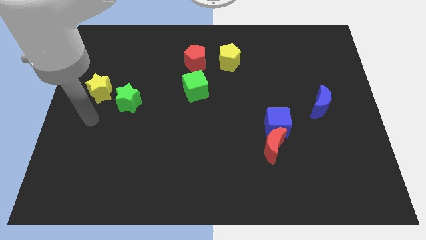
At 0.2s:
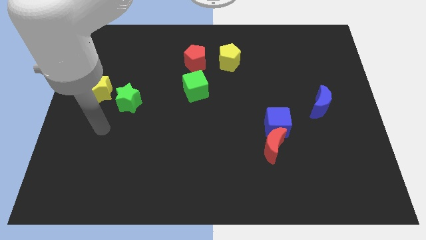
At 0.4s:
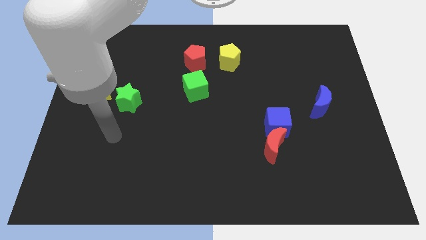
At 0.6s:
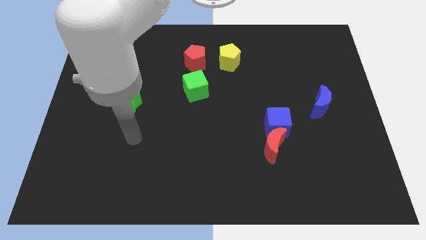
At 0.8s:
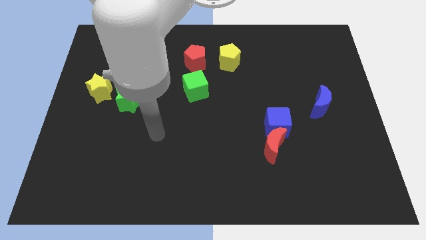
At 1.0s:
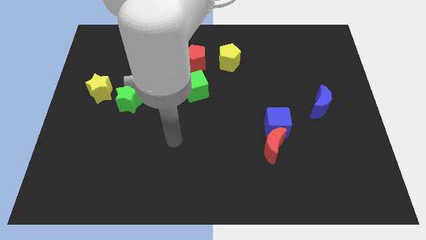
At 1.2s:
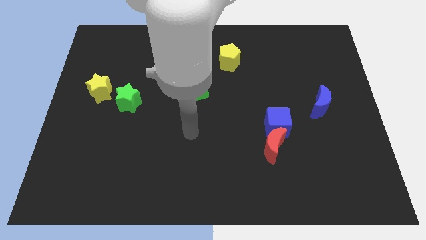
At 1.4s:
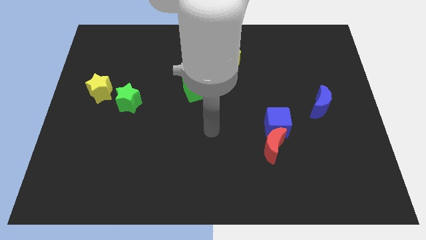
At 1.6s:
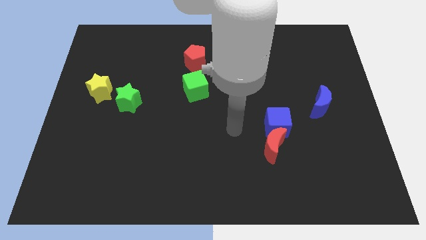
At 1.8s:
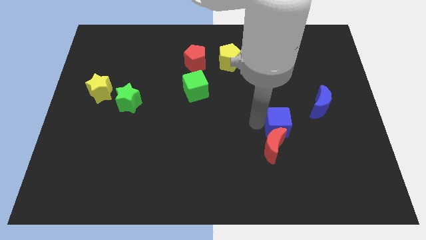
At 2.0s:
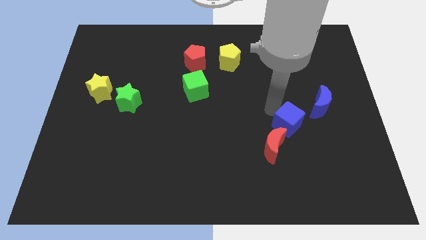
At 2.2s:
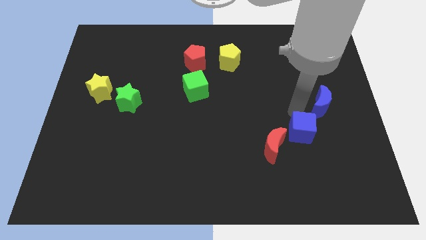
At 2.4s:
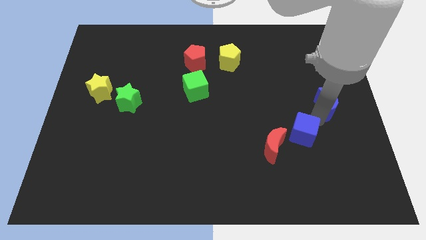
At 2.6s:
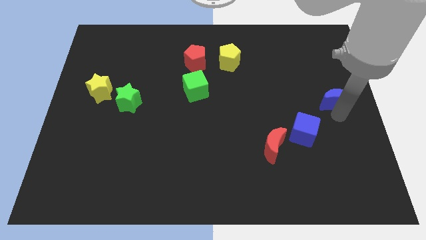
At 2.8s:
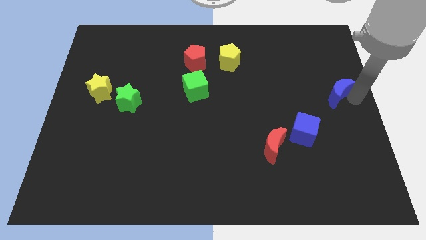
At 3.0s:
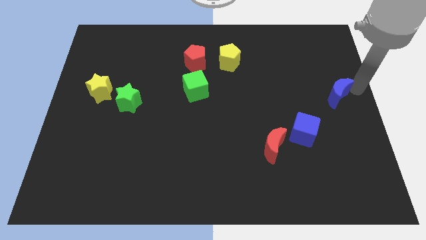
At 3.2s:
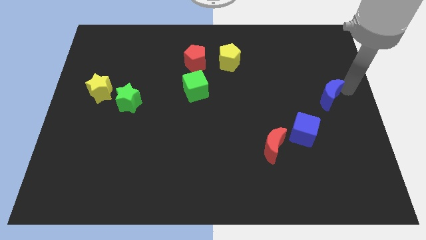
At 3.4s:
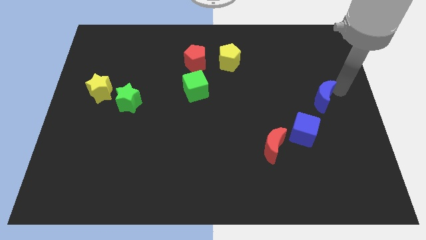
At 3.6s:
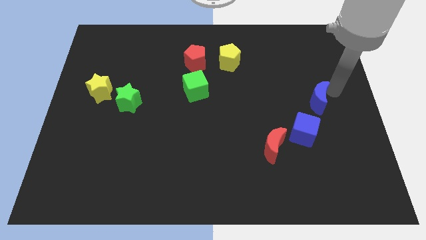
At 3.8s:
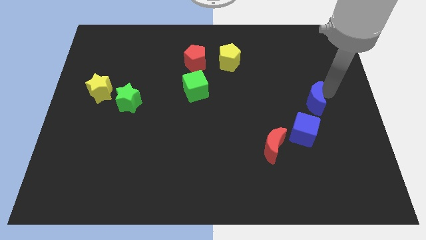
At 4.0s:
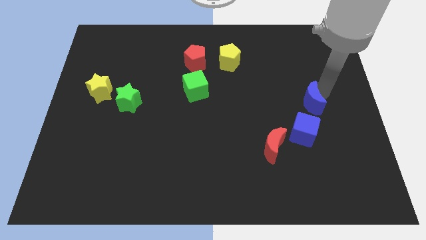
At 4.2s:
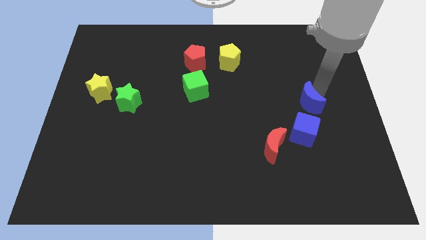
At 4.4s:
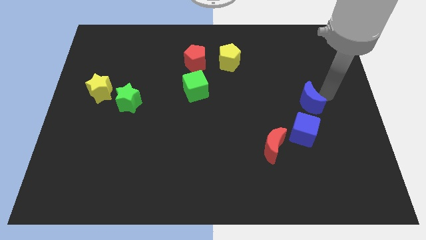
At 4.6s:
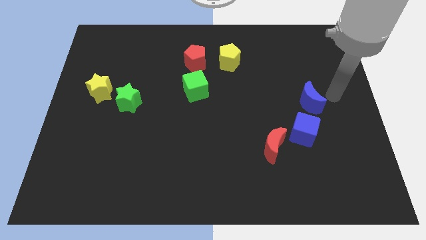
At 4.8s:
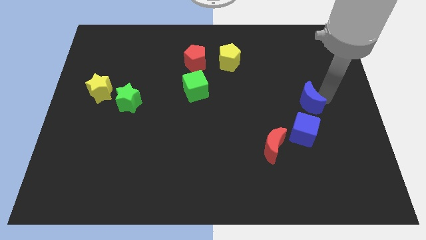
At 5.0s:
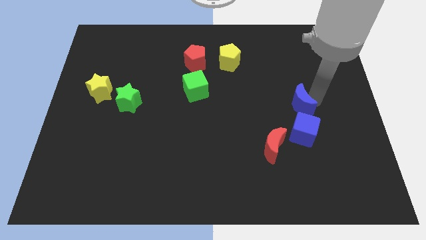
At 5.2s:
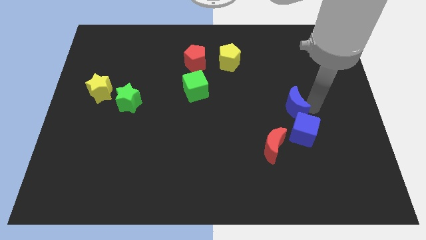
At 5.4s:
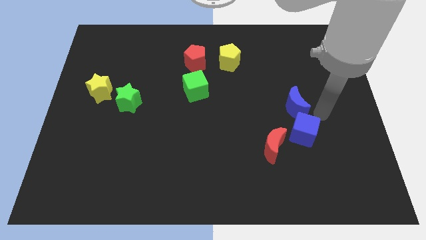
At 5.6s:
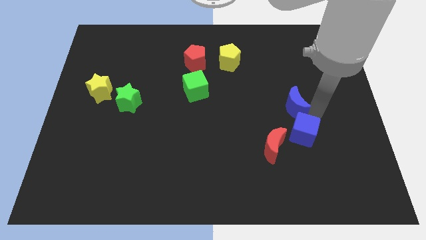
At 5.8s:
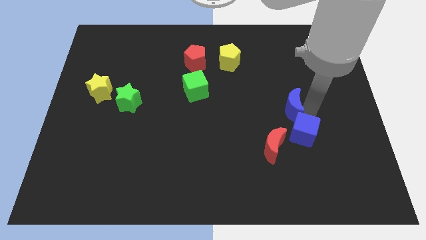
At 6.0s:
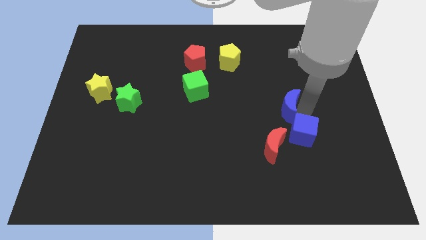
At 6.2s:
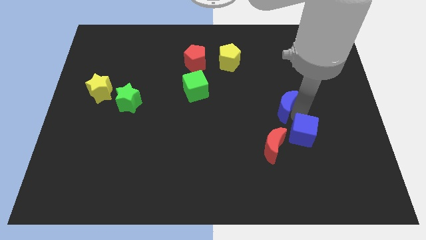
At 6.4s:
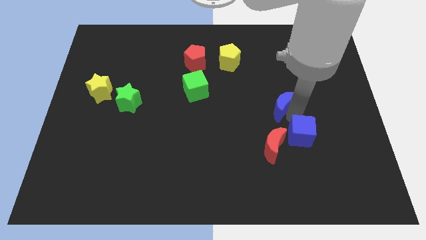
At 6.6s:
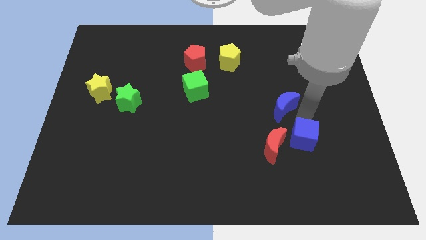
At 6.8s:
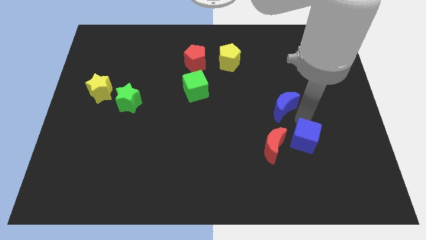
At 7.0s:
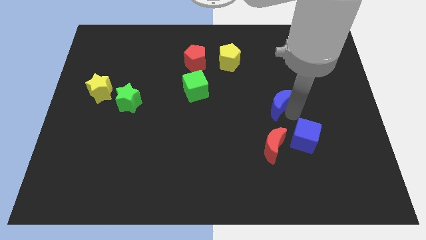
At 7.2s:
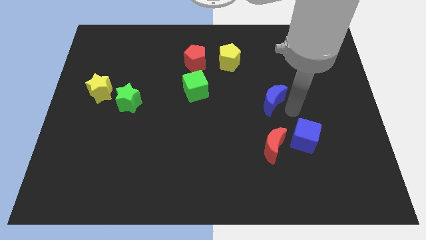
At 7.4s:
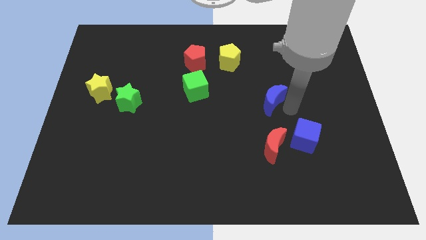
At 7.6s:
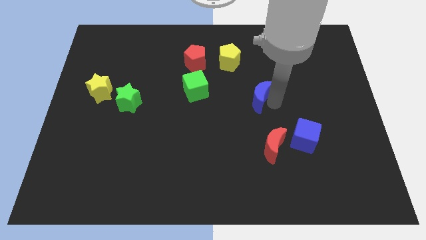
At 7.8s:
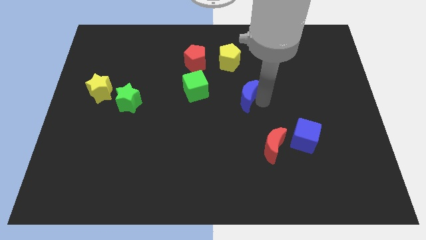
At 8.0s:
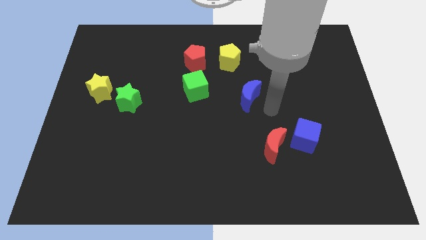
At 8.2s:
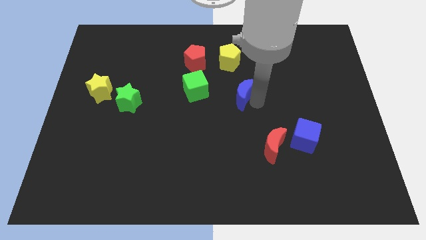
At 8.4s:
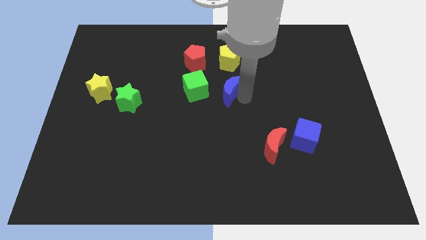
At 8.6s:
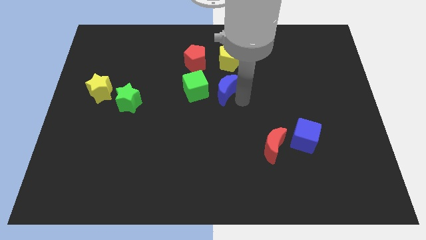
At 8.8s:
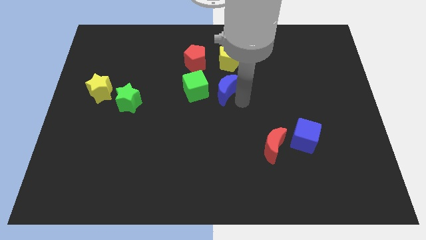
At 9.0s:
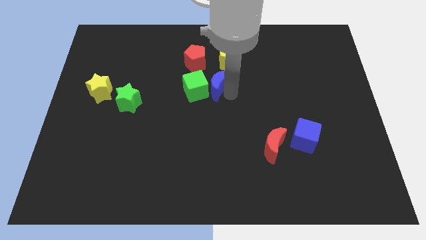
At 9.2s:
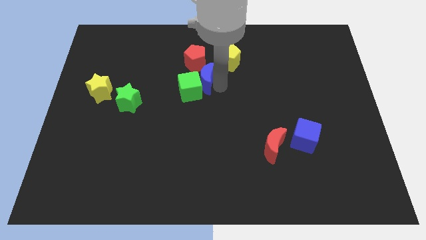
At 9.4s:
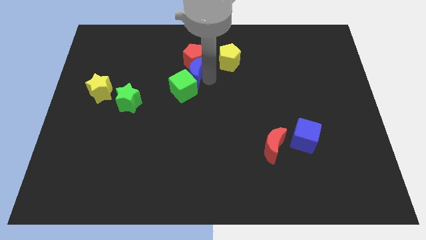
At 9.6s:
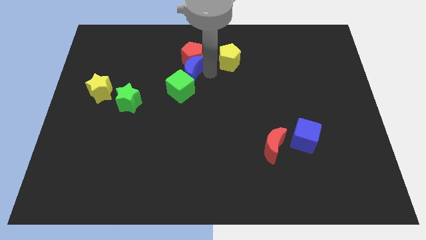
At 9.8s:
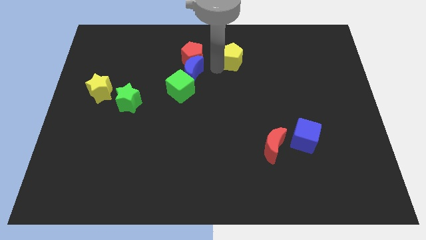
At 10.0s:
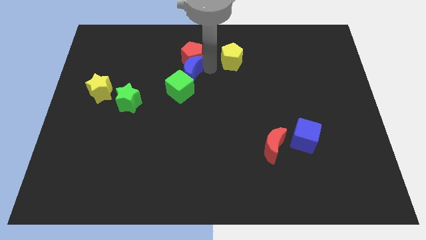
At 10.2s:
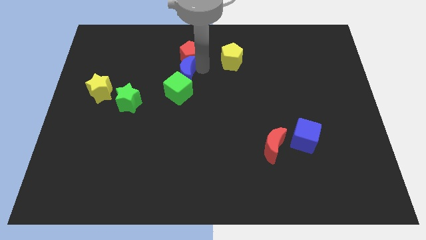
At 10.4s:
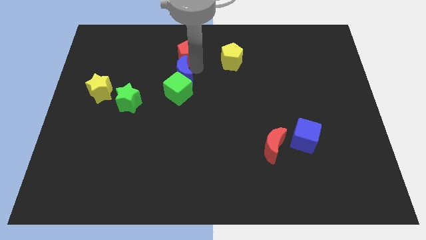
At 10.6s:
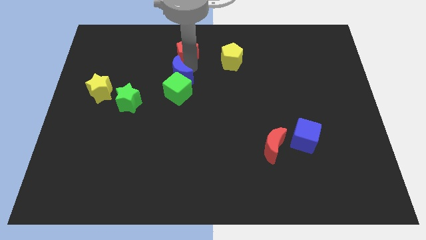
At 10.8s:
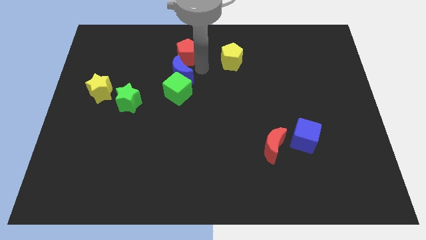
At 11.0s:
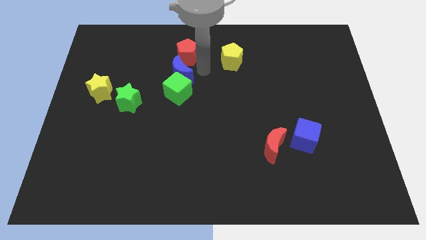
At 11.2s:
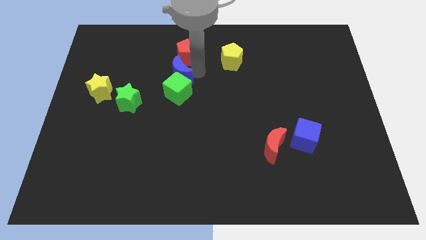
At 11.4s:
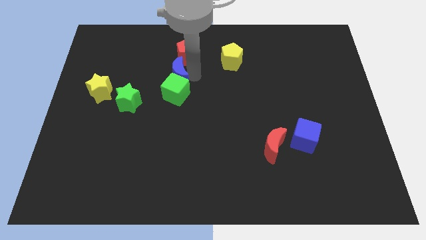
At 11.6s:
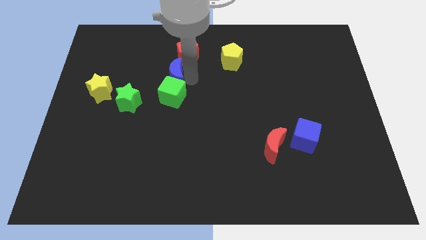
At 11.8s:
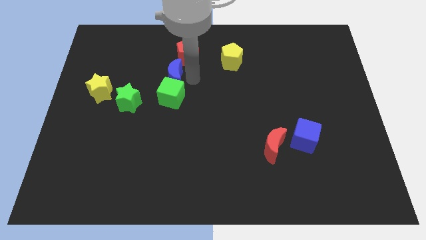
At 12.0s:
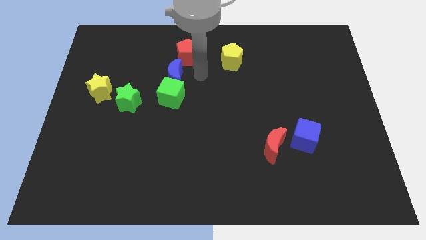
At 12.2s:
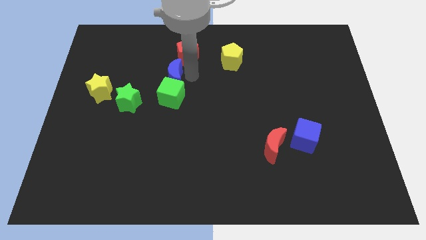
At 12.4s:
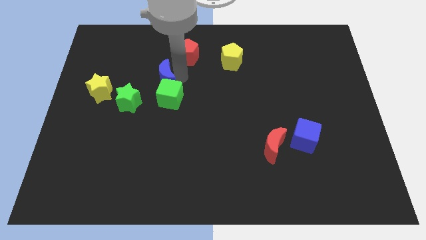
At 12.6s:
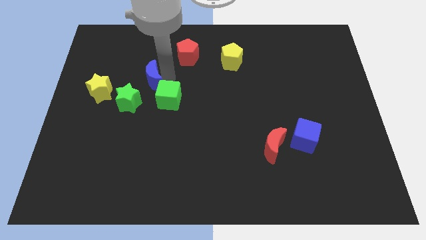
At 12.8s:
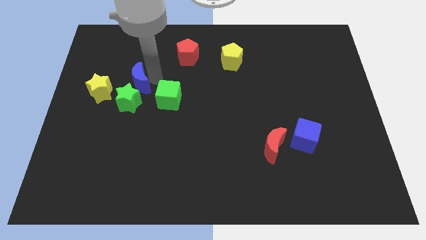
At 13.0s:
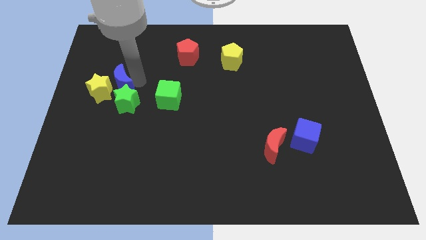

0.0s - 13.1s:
push the blue moon to the yellow star

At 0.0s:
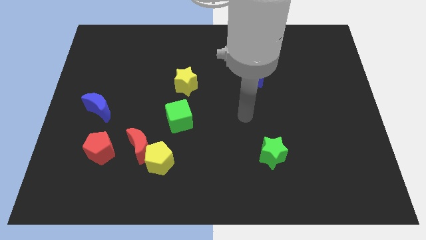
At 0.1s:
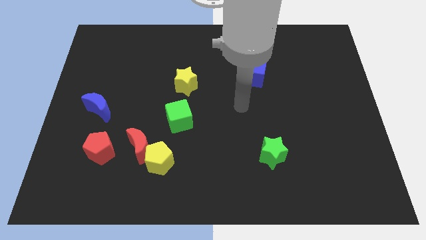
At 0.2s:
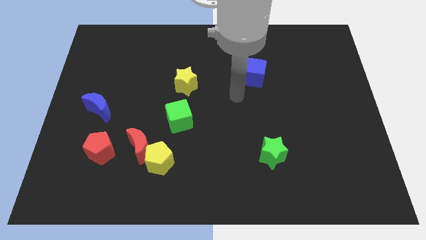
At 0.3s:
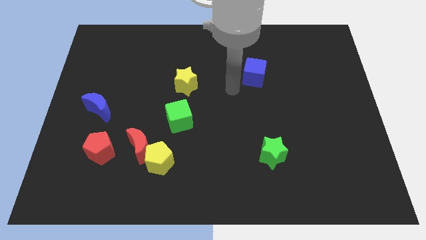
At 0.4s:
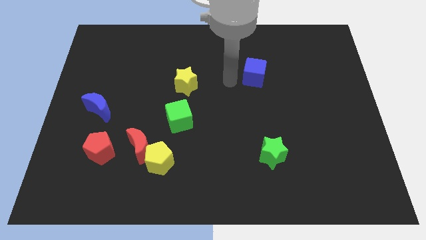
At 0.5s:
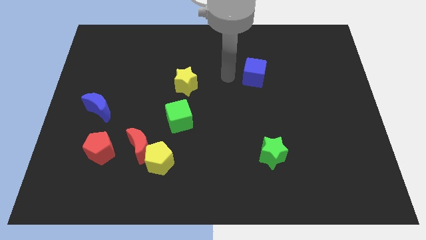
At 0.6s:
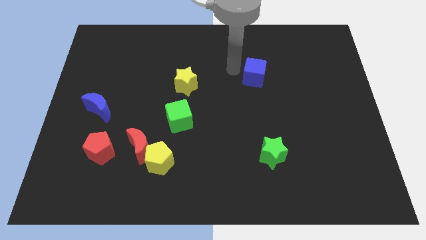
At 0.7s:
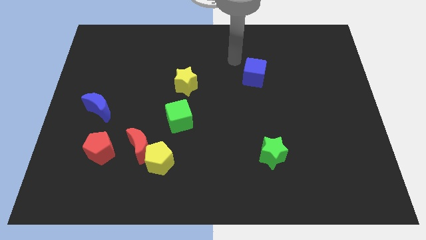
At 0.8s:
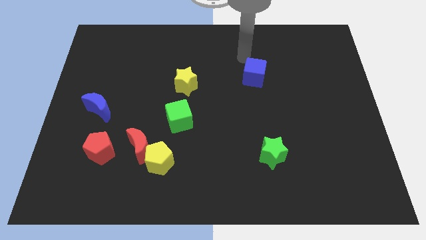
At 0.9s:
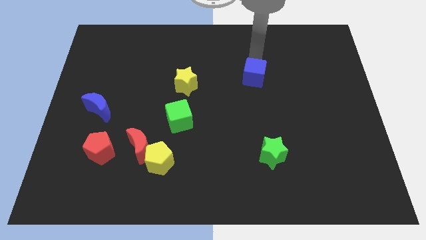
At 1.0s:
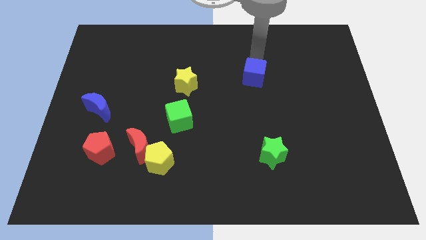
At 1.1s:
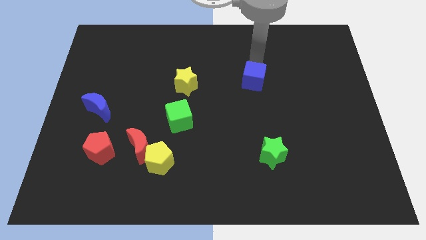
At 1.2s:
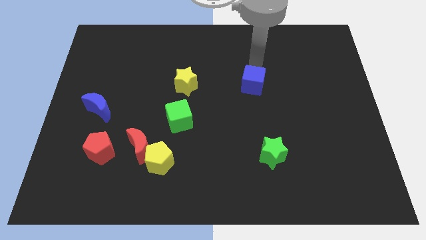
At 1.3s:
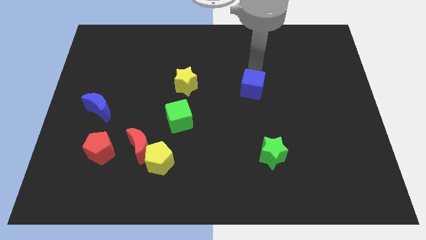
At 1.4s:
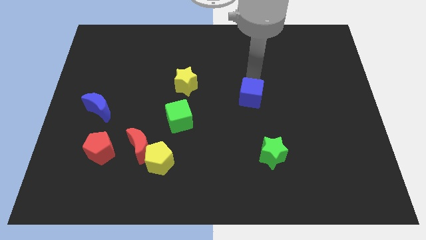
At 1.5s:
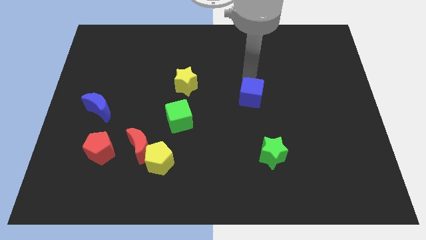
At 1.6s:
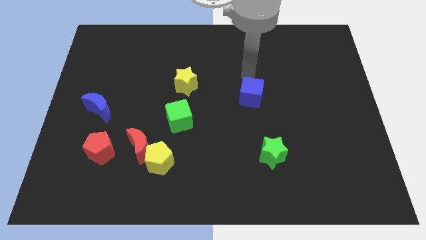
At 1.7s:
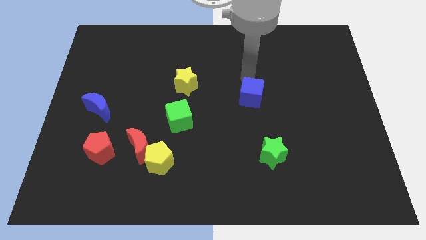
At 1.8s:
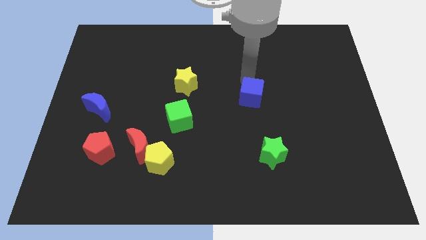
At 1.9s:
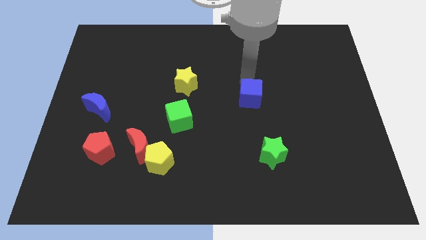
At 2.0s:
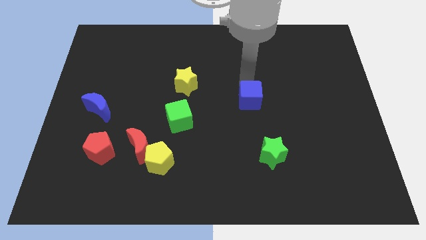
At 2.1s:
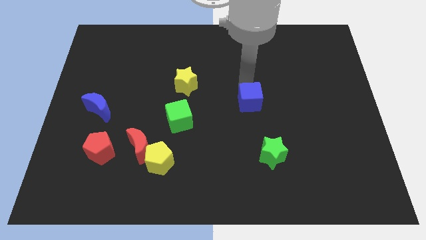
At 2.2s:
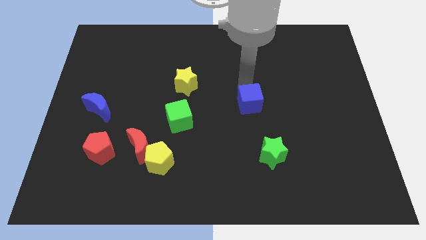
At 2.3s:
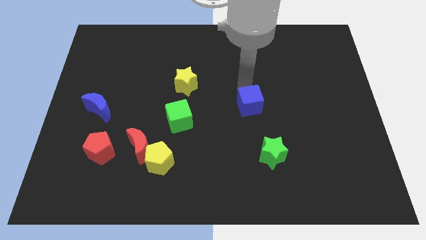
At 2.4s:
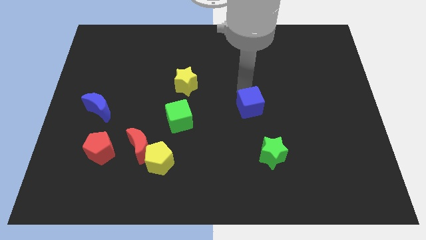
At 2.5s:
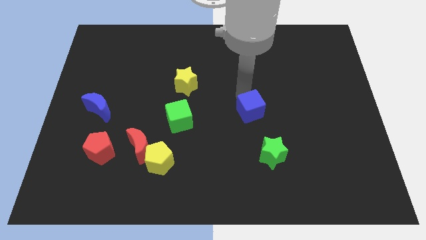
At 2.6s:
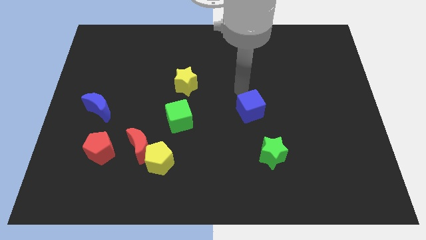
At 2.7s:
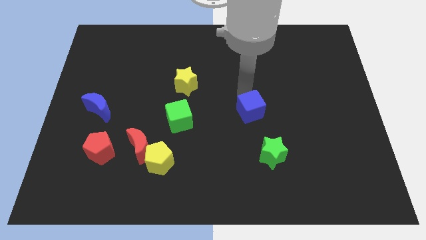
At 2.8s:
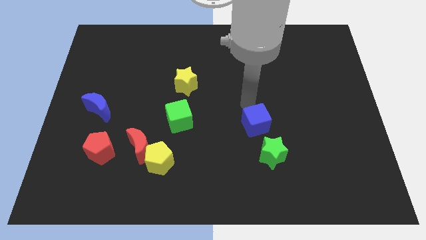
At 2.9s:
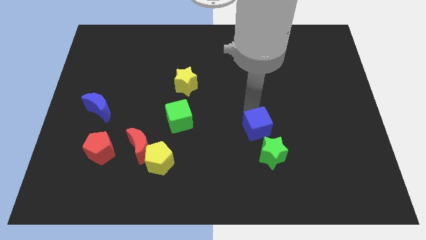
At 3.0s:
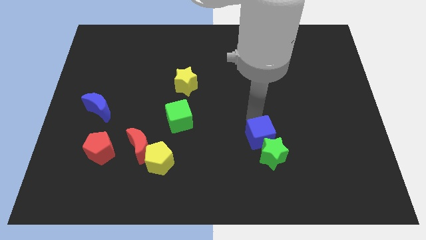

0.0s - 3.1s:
push the blue cube towards the green star
